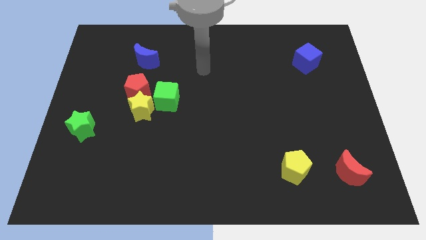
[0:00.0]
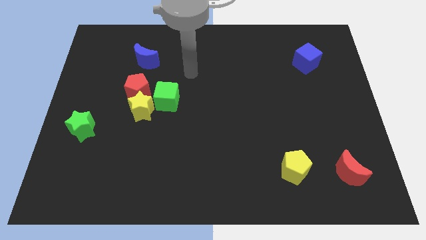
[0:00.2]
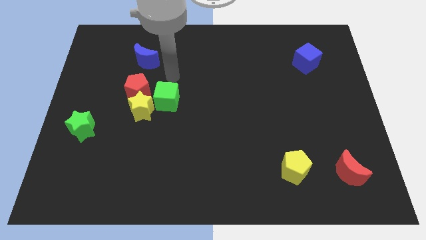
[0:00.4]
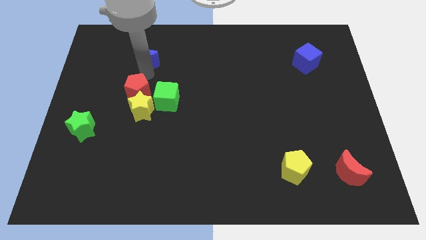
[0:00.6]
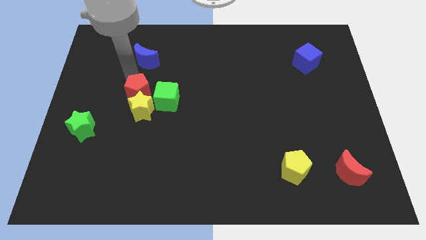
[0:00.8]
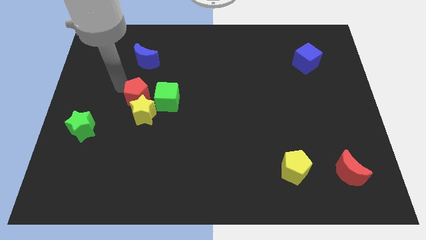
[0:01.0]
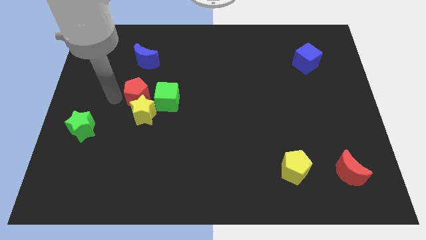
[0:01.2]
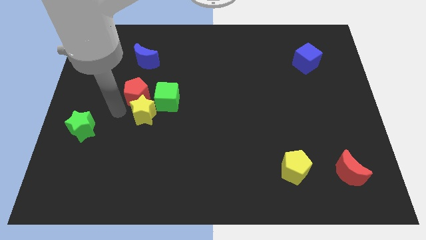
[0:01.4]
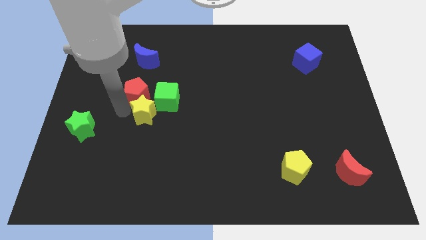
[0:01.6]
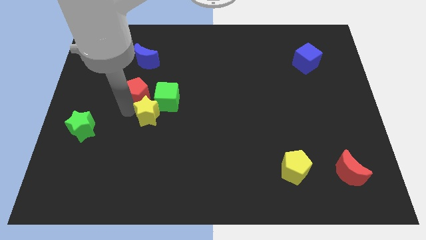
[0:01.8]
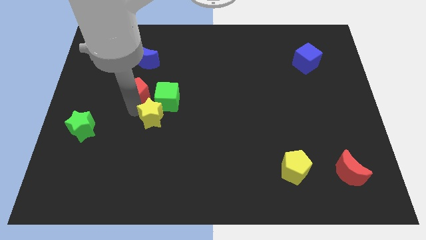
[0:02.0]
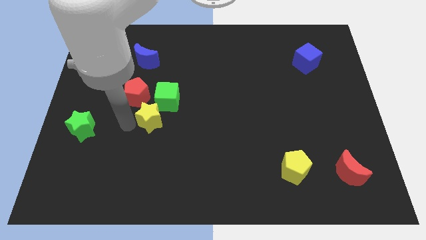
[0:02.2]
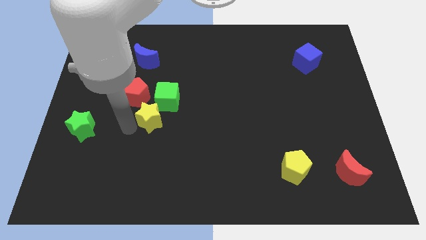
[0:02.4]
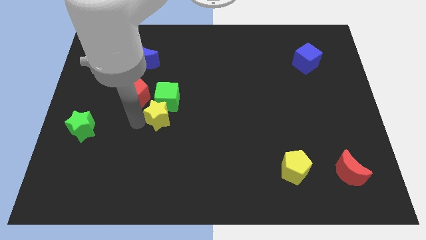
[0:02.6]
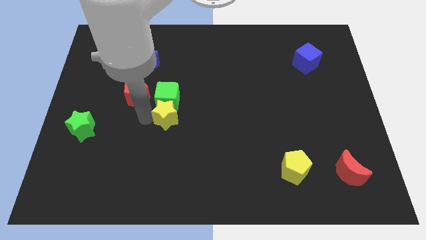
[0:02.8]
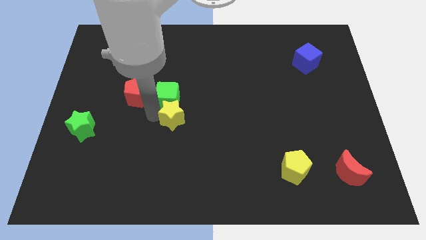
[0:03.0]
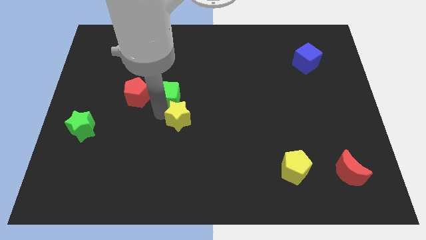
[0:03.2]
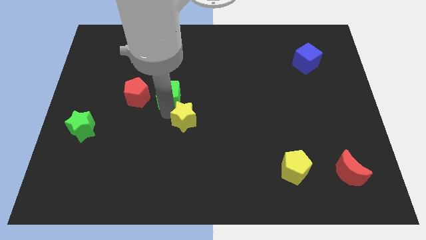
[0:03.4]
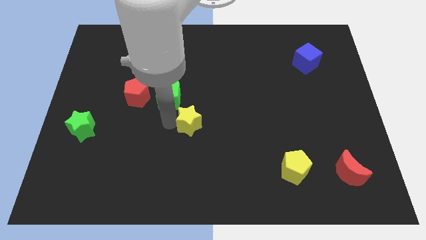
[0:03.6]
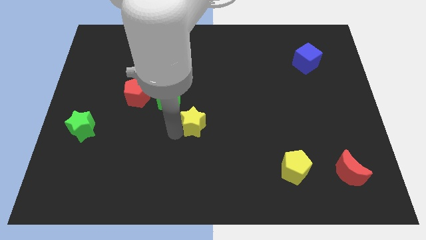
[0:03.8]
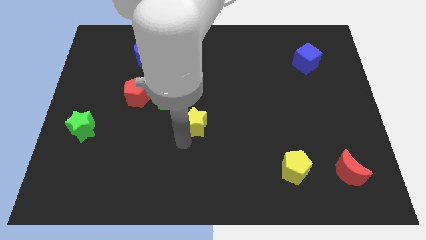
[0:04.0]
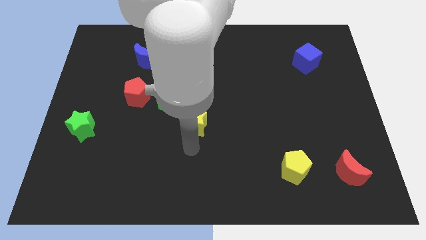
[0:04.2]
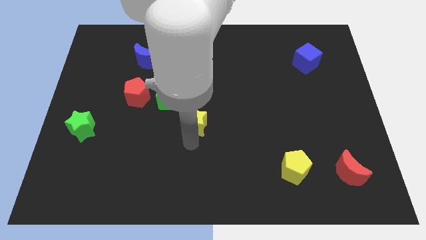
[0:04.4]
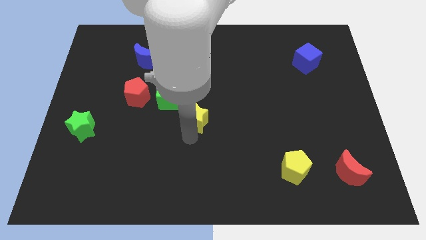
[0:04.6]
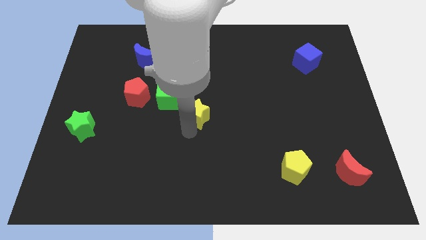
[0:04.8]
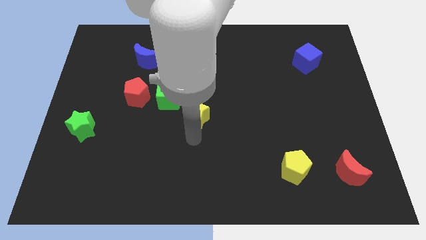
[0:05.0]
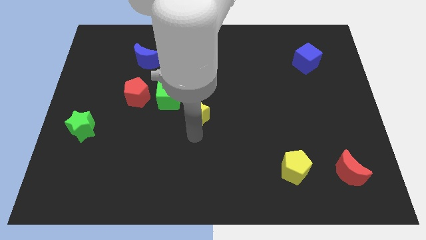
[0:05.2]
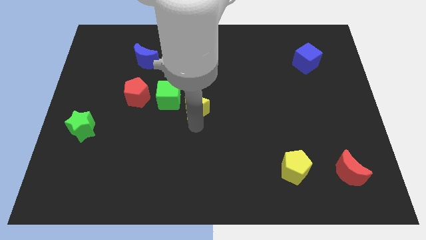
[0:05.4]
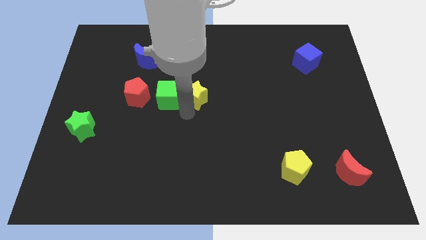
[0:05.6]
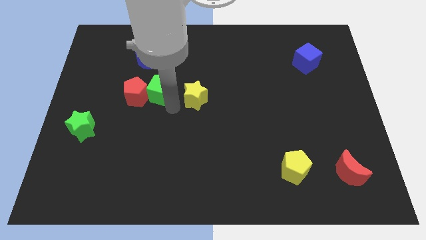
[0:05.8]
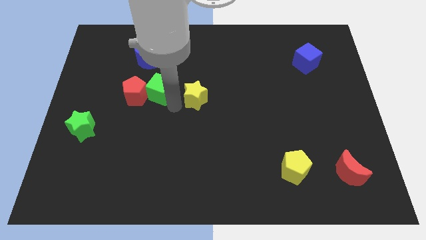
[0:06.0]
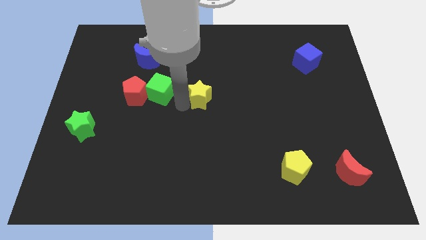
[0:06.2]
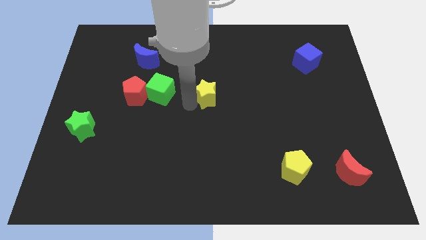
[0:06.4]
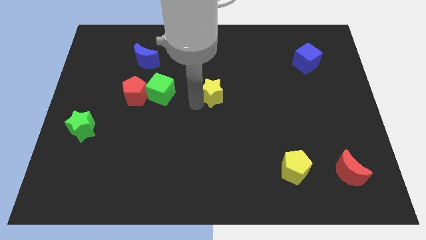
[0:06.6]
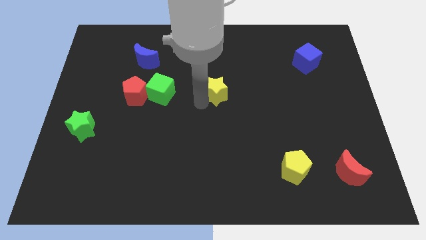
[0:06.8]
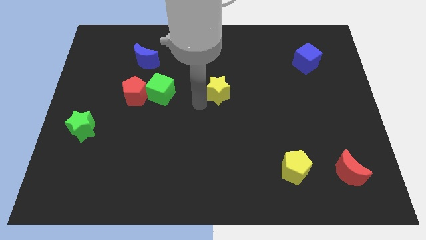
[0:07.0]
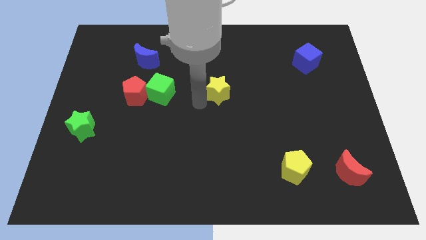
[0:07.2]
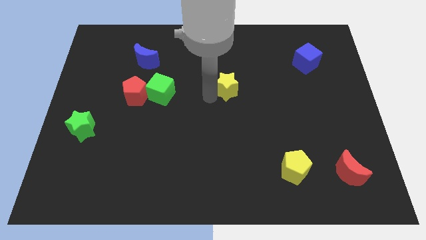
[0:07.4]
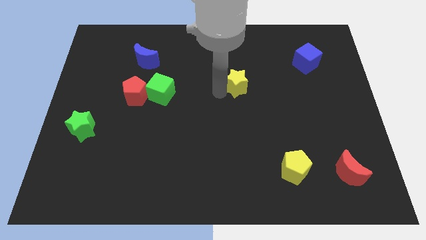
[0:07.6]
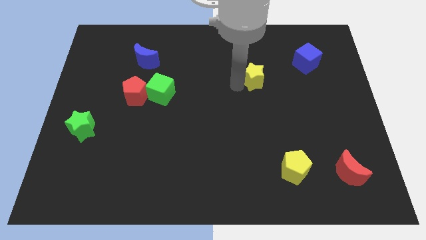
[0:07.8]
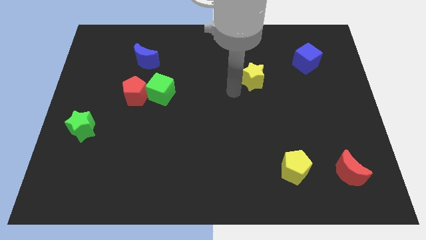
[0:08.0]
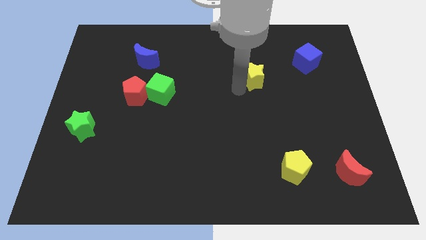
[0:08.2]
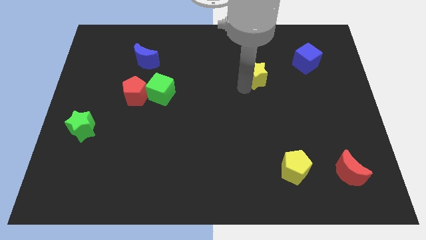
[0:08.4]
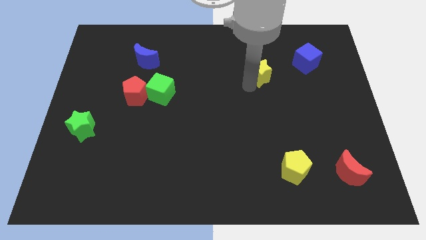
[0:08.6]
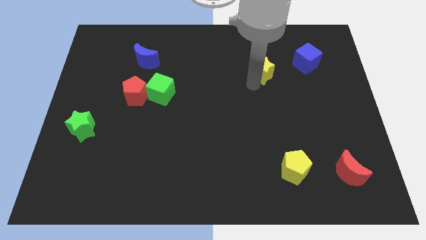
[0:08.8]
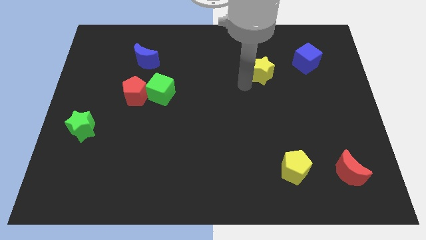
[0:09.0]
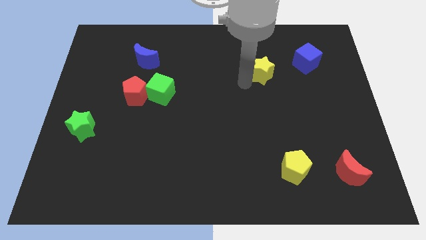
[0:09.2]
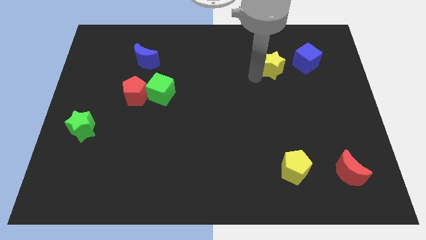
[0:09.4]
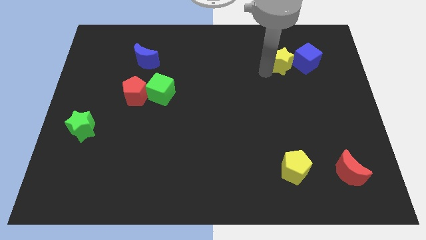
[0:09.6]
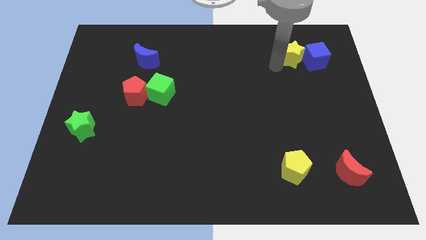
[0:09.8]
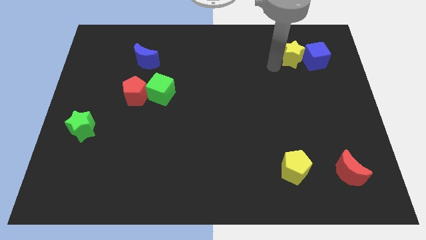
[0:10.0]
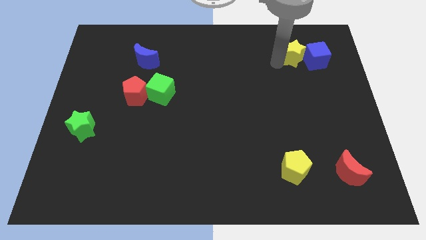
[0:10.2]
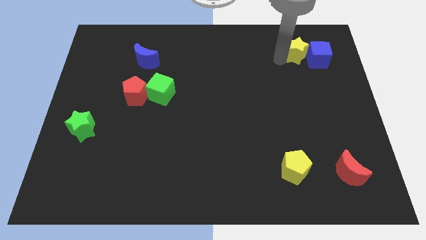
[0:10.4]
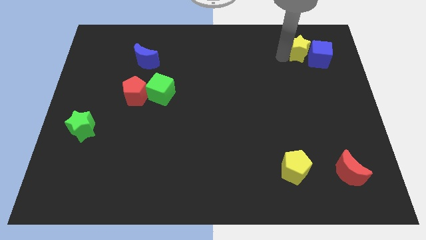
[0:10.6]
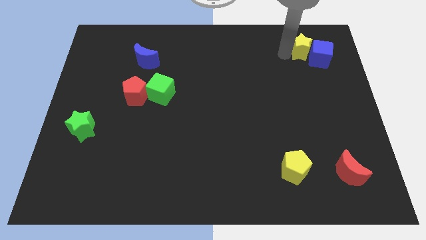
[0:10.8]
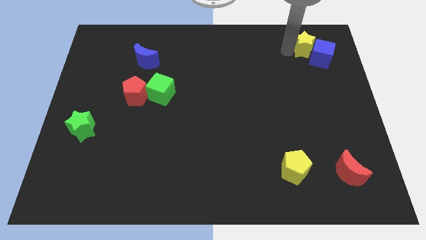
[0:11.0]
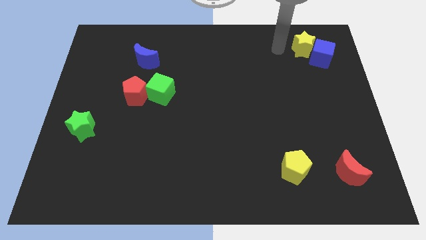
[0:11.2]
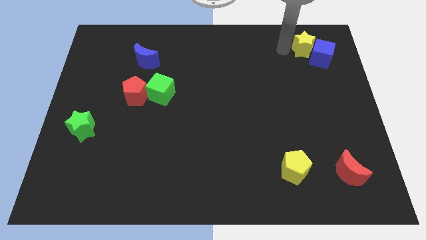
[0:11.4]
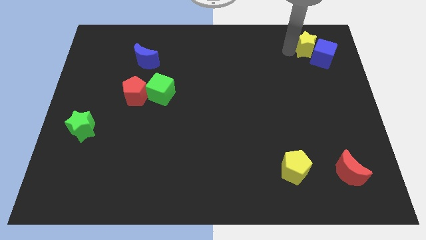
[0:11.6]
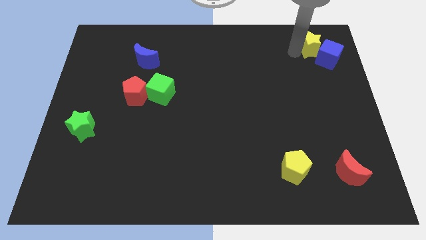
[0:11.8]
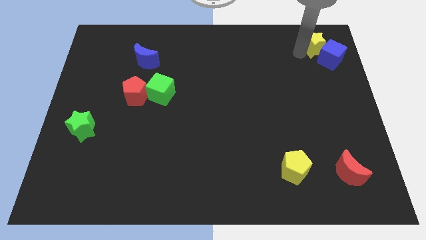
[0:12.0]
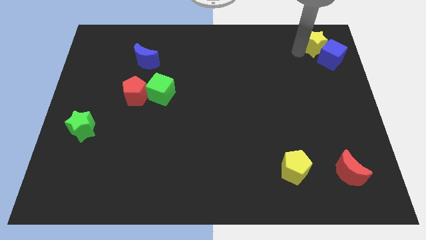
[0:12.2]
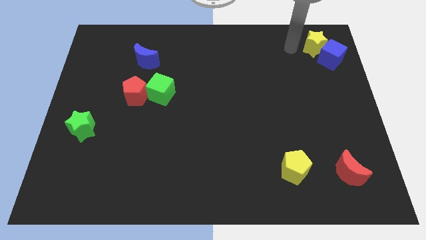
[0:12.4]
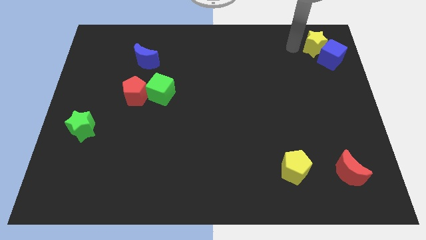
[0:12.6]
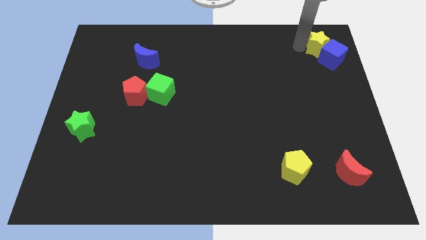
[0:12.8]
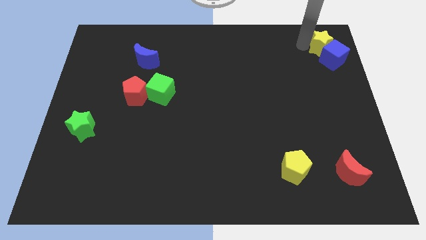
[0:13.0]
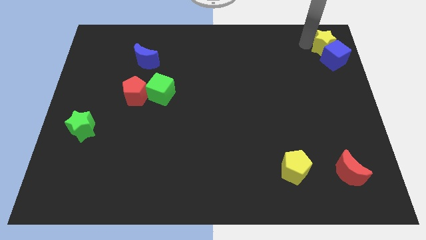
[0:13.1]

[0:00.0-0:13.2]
move the yellow star to the top right corner
